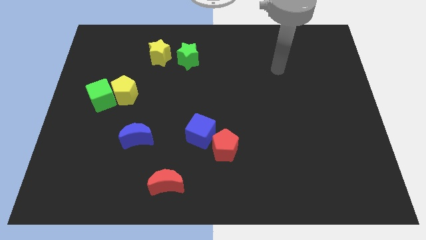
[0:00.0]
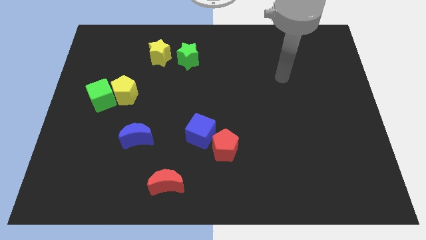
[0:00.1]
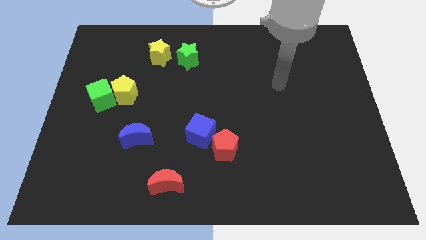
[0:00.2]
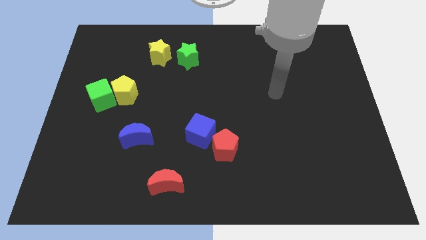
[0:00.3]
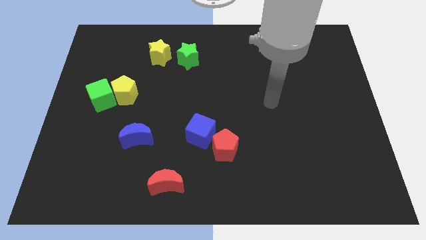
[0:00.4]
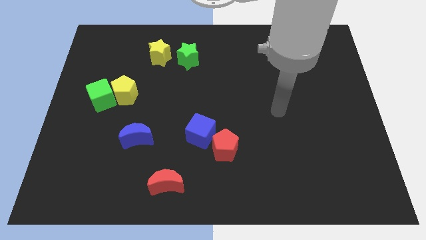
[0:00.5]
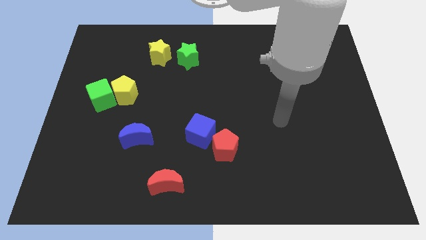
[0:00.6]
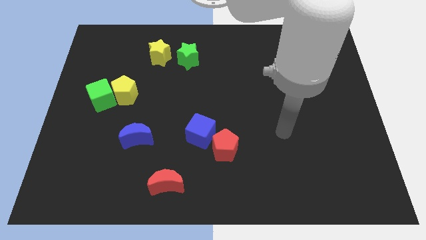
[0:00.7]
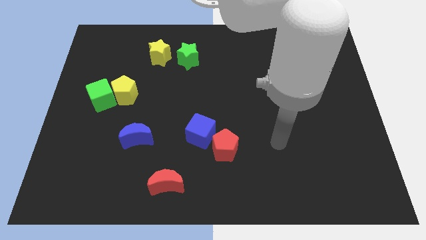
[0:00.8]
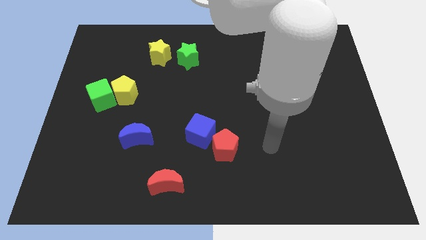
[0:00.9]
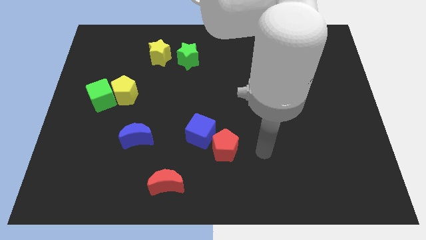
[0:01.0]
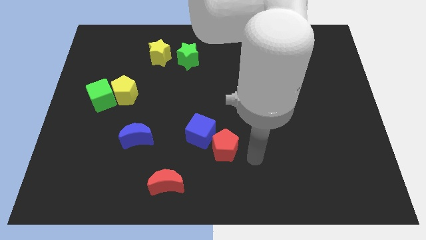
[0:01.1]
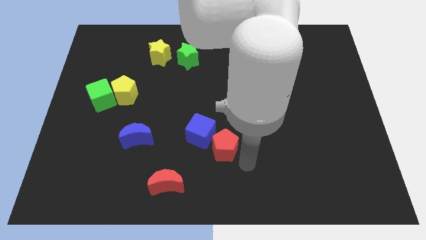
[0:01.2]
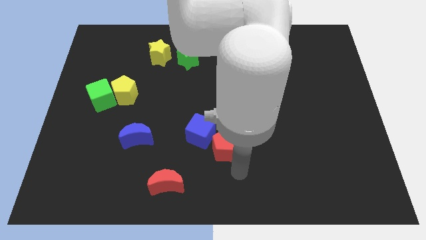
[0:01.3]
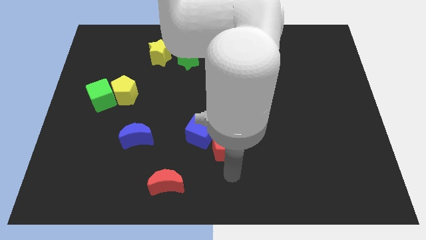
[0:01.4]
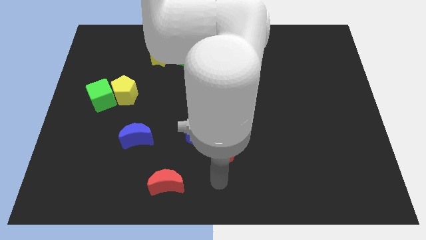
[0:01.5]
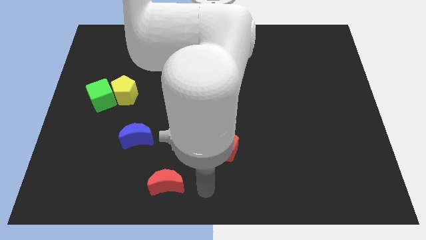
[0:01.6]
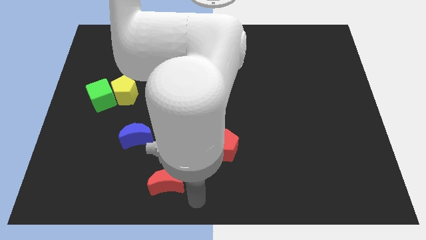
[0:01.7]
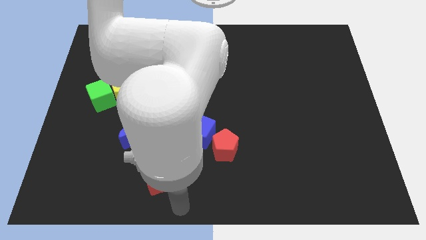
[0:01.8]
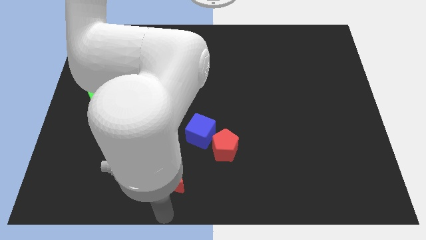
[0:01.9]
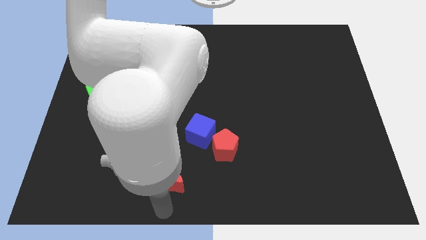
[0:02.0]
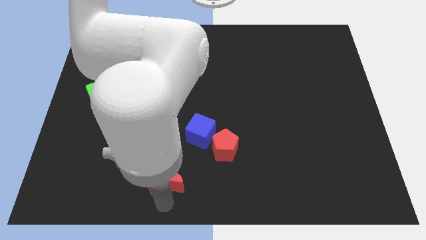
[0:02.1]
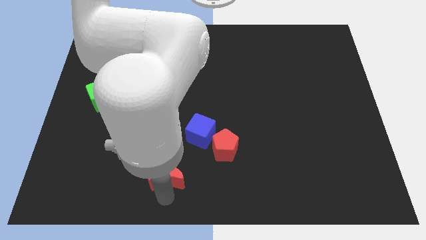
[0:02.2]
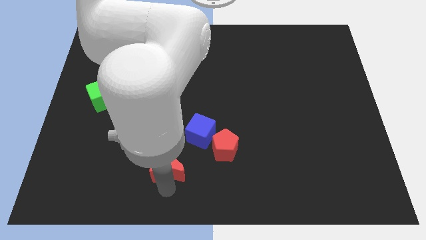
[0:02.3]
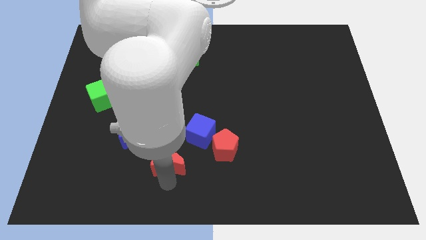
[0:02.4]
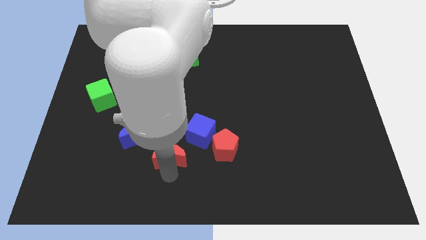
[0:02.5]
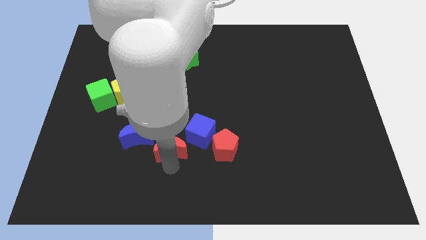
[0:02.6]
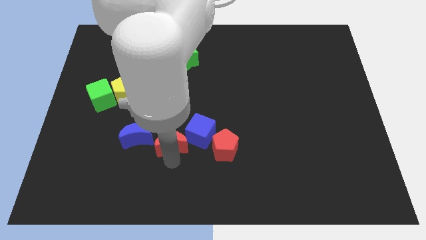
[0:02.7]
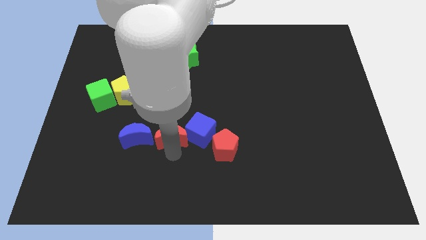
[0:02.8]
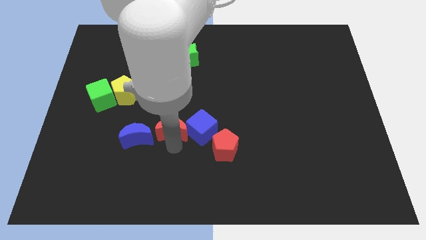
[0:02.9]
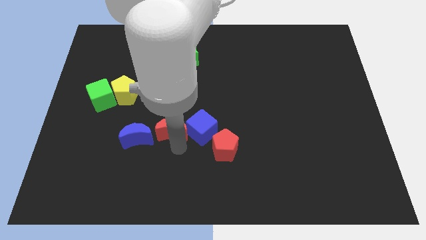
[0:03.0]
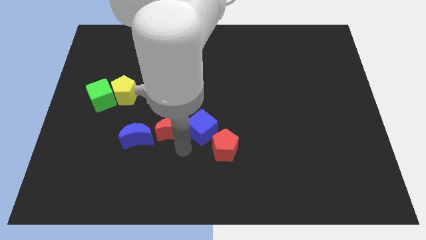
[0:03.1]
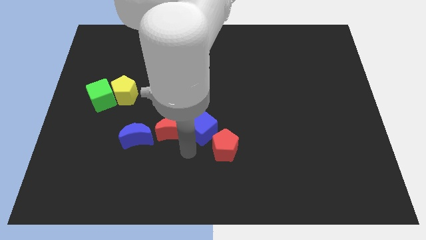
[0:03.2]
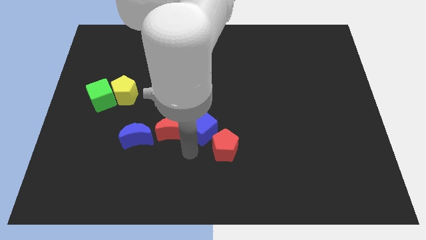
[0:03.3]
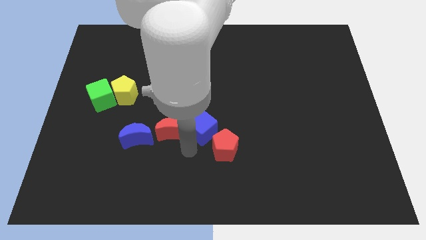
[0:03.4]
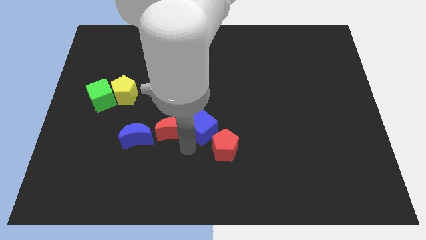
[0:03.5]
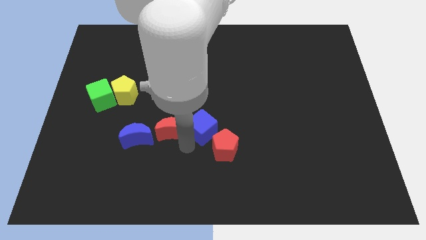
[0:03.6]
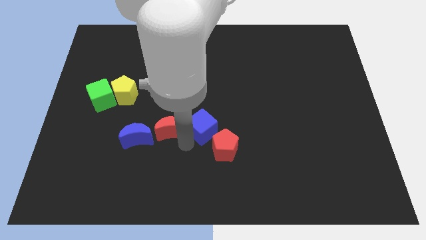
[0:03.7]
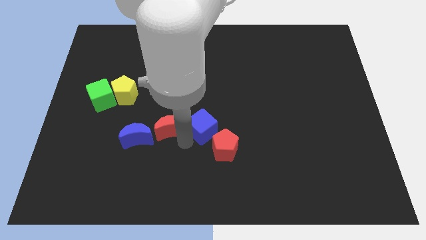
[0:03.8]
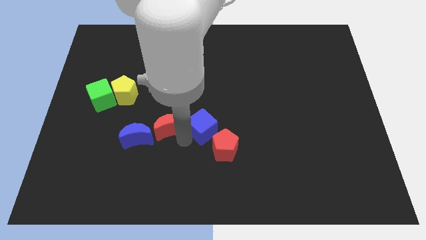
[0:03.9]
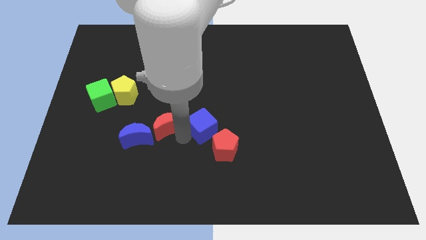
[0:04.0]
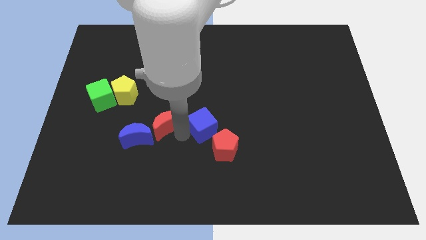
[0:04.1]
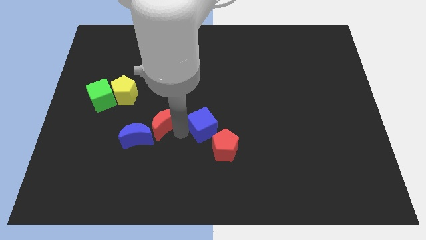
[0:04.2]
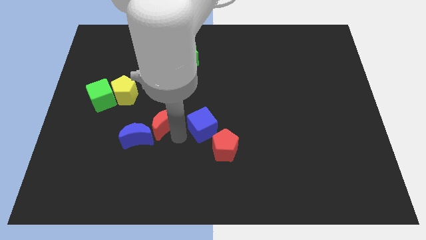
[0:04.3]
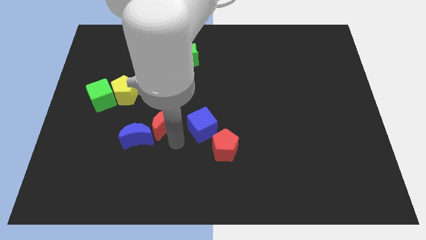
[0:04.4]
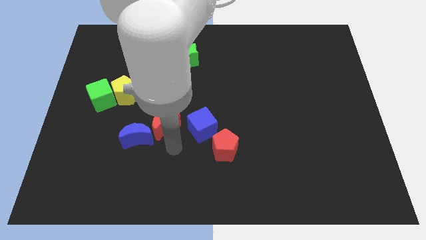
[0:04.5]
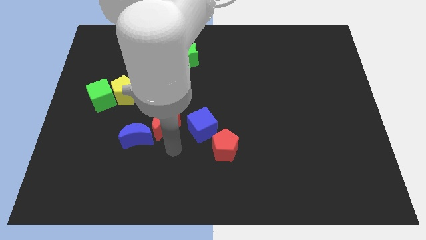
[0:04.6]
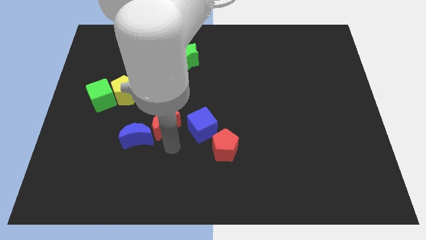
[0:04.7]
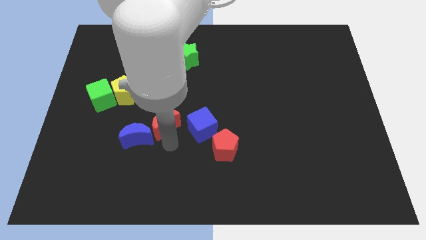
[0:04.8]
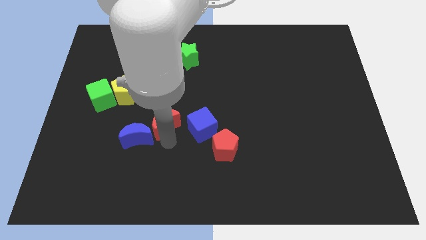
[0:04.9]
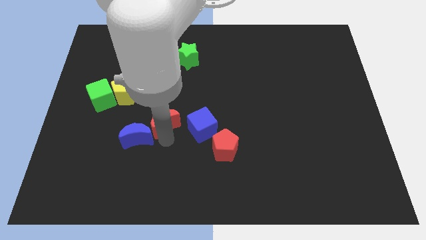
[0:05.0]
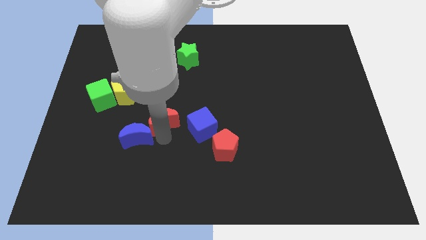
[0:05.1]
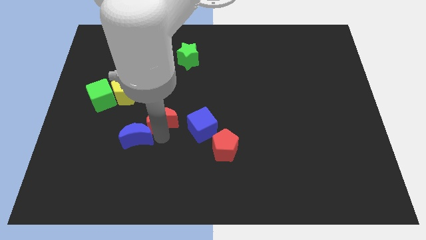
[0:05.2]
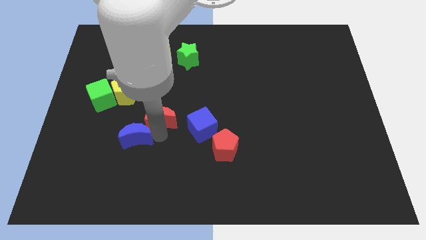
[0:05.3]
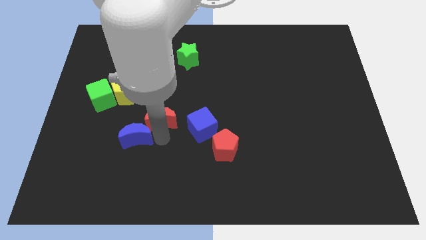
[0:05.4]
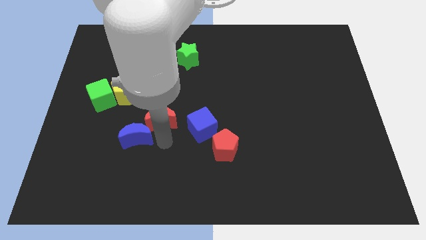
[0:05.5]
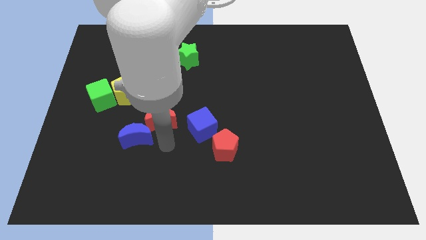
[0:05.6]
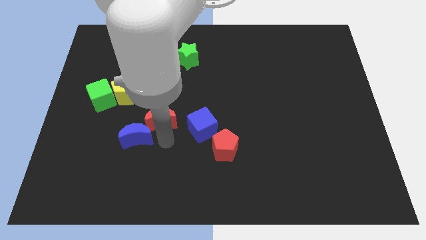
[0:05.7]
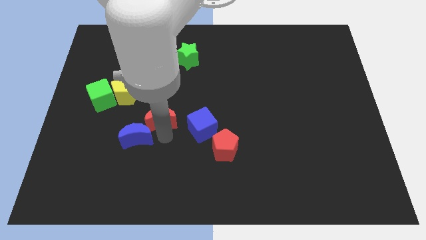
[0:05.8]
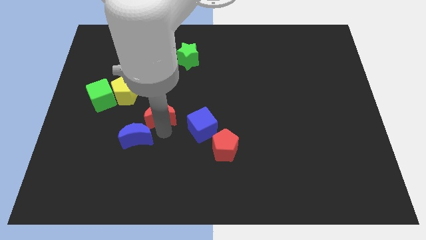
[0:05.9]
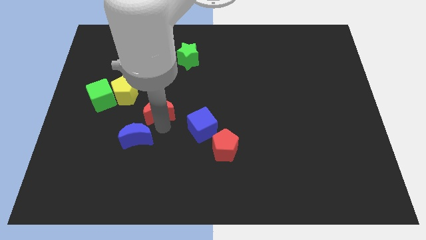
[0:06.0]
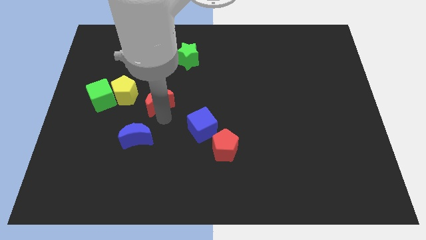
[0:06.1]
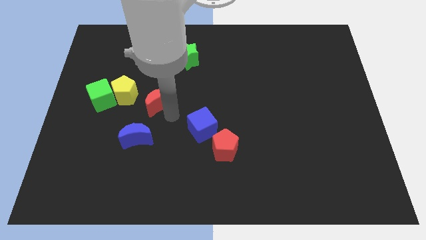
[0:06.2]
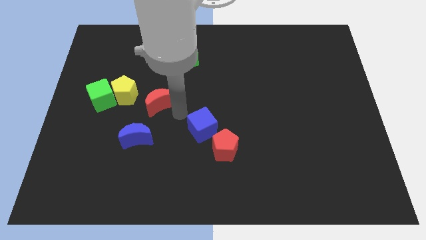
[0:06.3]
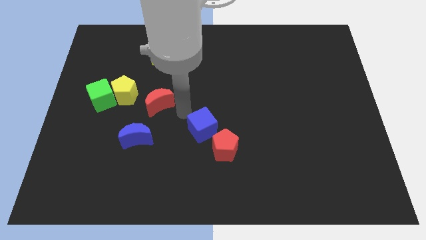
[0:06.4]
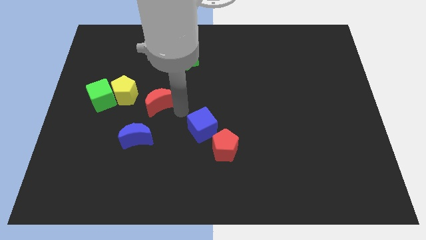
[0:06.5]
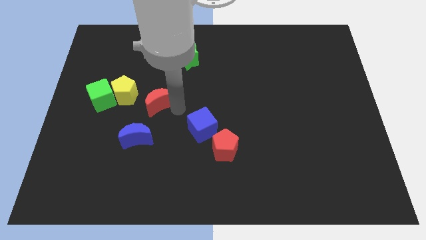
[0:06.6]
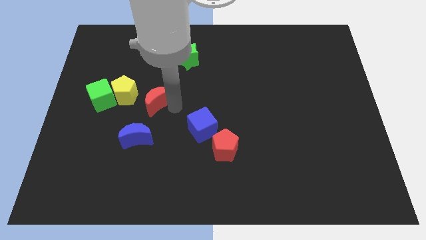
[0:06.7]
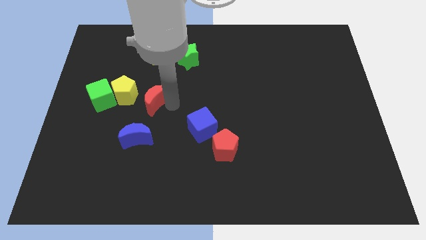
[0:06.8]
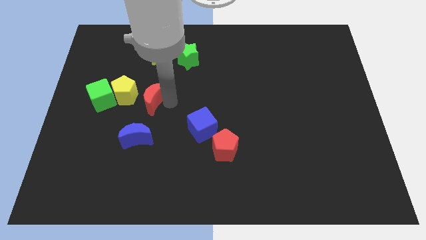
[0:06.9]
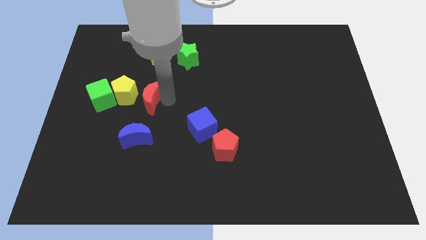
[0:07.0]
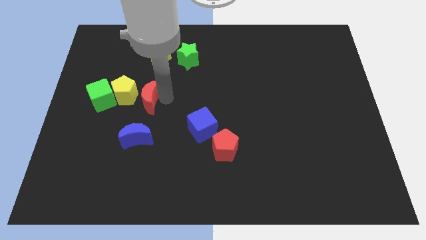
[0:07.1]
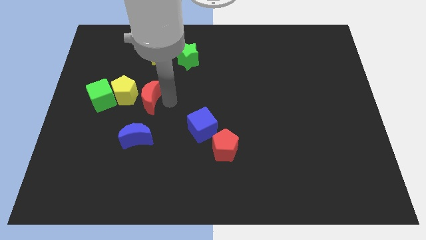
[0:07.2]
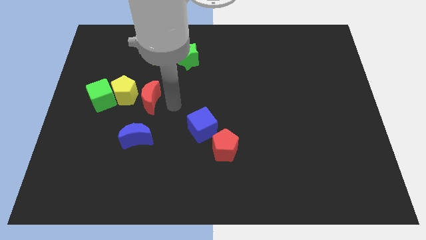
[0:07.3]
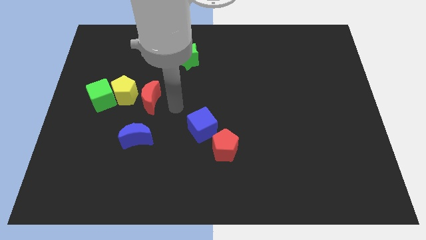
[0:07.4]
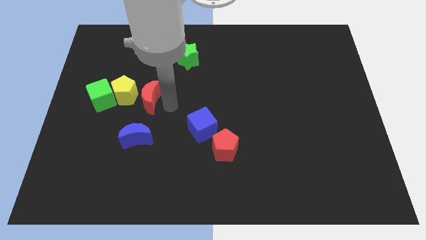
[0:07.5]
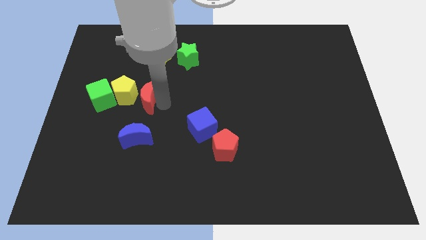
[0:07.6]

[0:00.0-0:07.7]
put the red moon to the yellow pentagon
